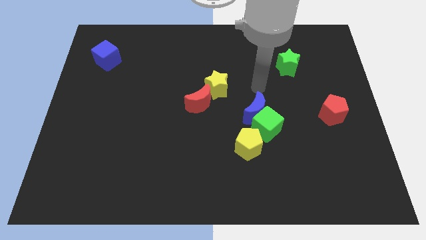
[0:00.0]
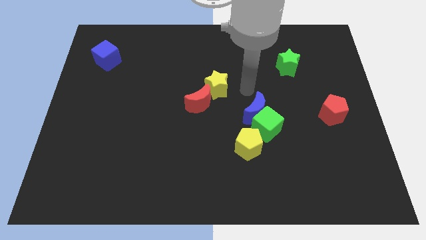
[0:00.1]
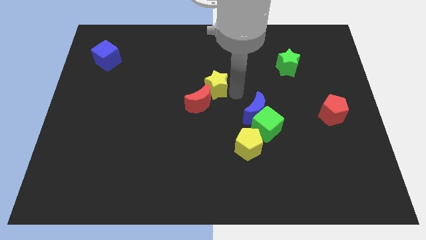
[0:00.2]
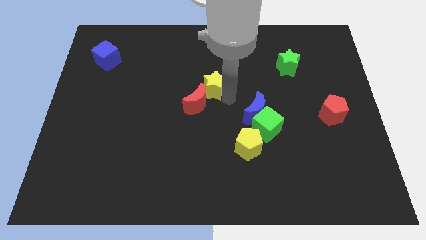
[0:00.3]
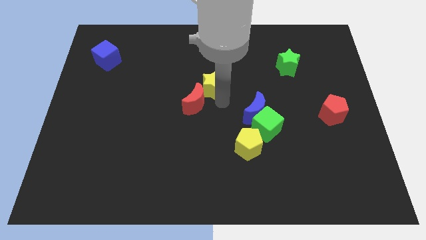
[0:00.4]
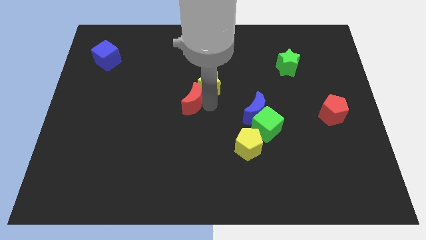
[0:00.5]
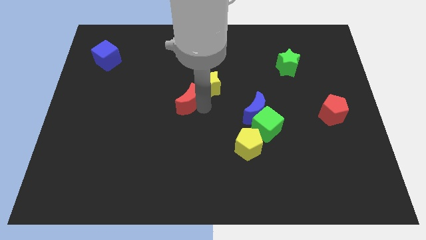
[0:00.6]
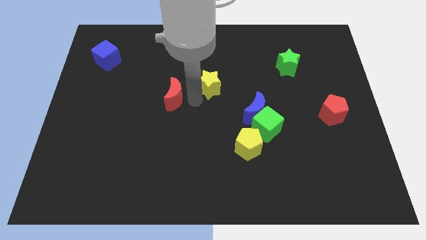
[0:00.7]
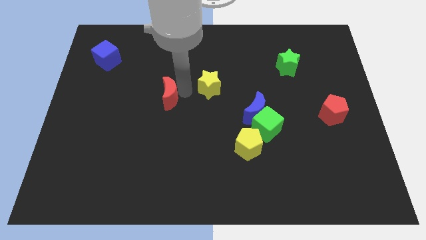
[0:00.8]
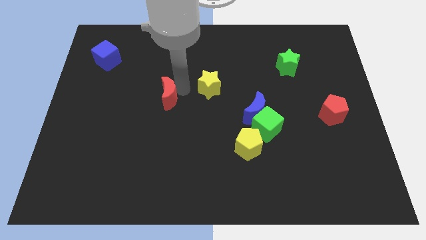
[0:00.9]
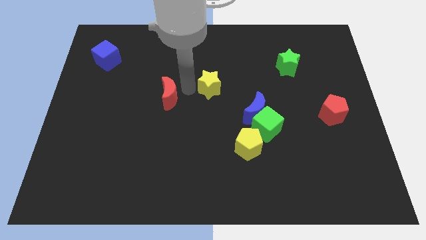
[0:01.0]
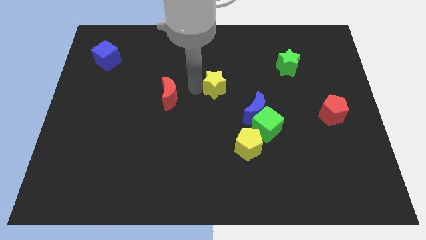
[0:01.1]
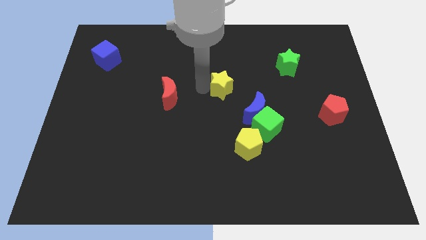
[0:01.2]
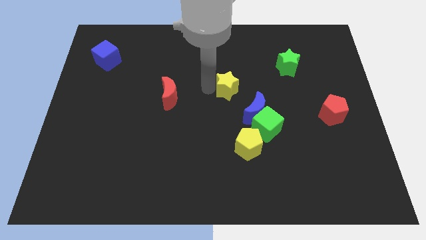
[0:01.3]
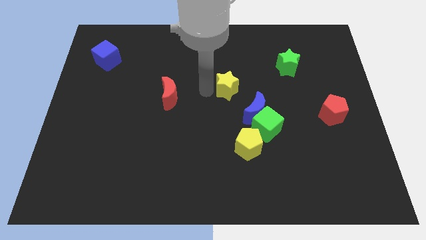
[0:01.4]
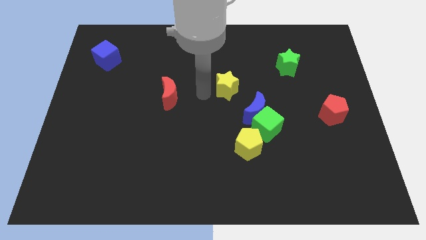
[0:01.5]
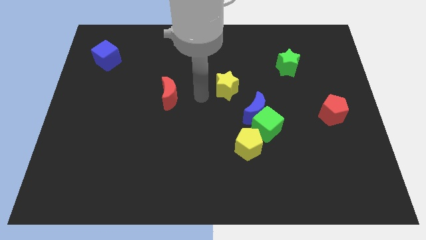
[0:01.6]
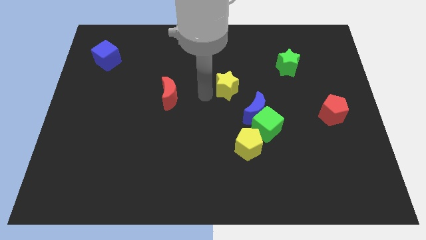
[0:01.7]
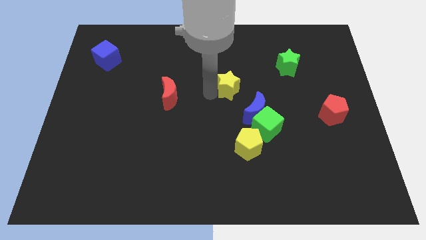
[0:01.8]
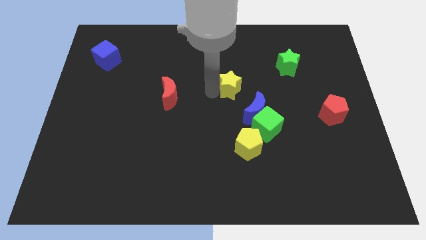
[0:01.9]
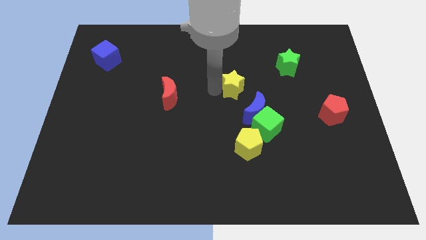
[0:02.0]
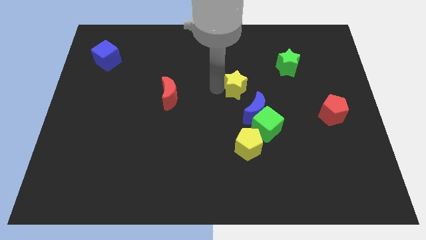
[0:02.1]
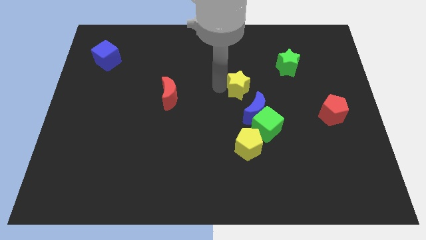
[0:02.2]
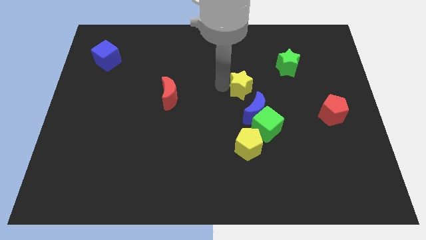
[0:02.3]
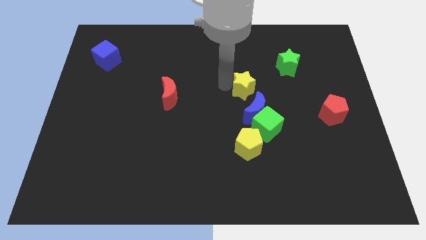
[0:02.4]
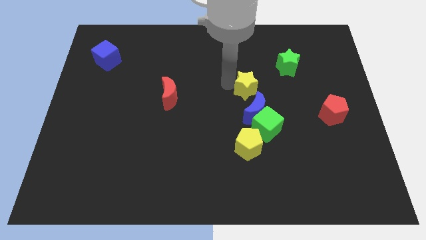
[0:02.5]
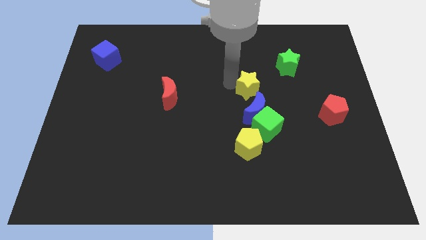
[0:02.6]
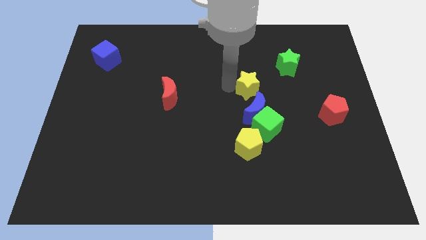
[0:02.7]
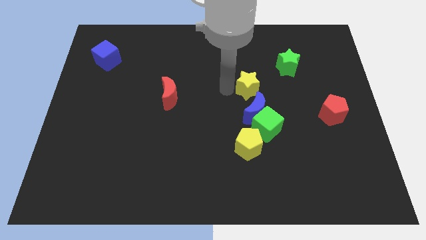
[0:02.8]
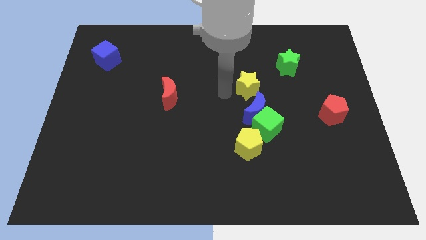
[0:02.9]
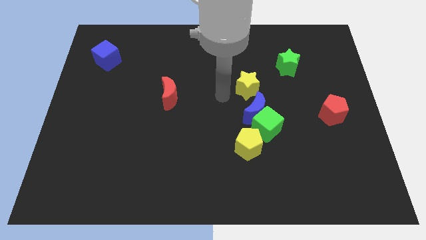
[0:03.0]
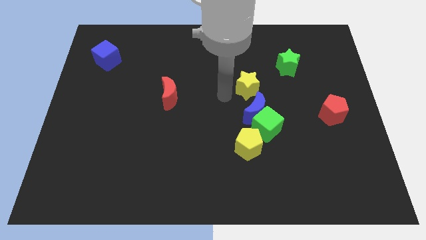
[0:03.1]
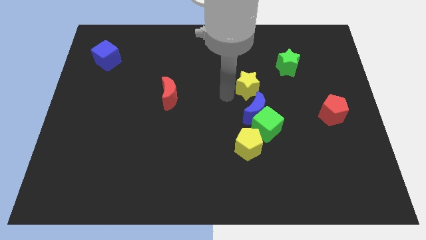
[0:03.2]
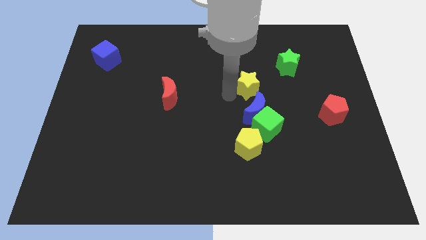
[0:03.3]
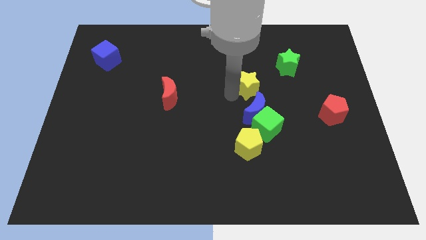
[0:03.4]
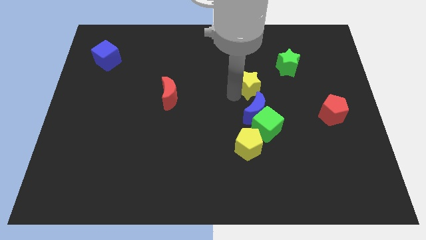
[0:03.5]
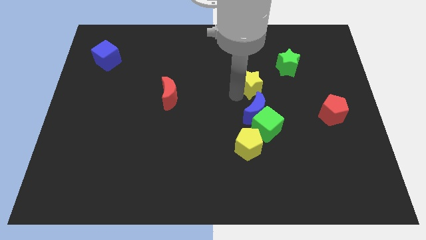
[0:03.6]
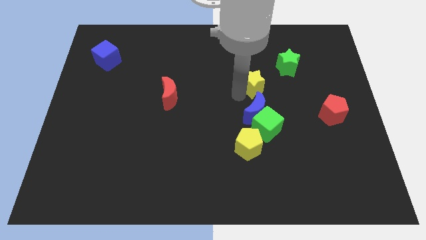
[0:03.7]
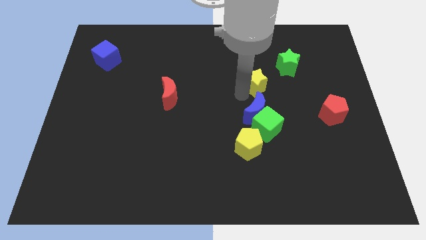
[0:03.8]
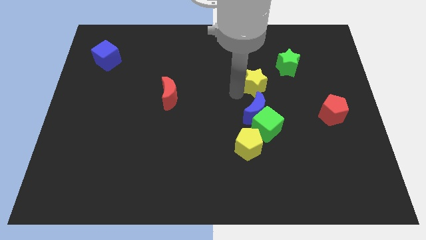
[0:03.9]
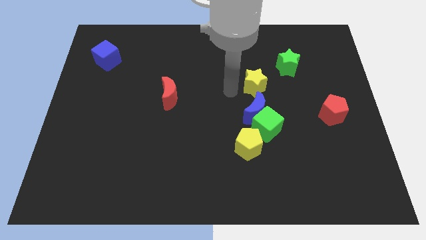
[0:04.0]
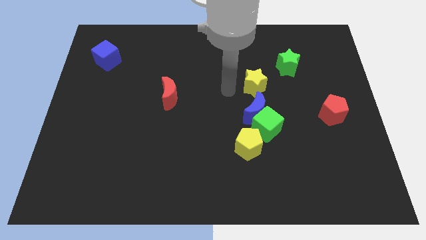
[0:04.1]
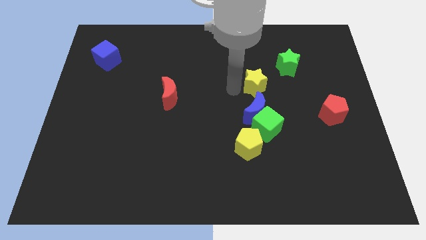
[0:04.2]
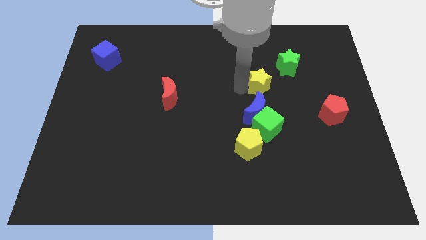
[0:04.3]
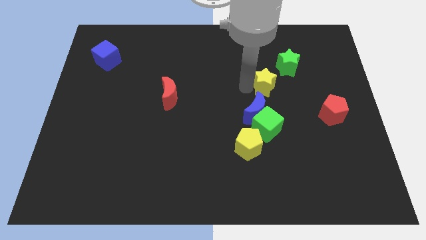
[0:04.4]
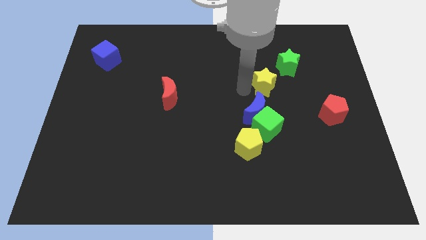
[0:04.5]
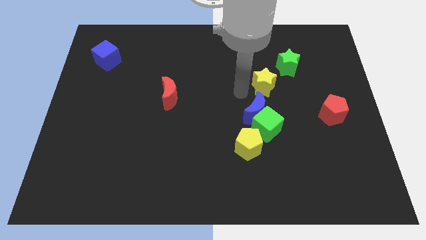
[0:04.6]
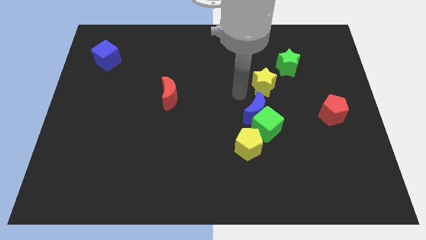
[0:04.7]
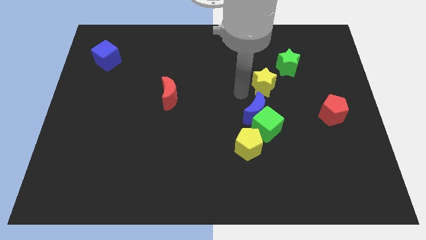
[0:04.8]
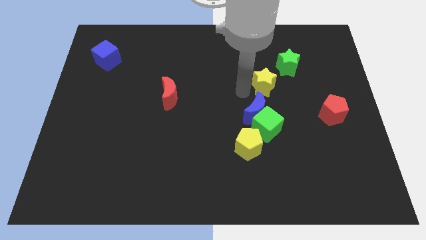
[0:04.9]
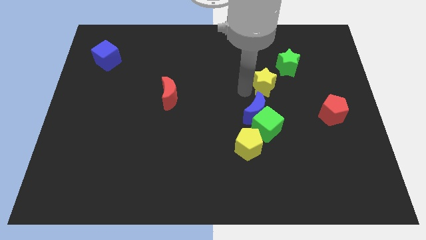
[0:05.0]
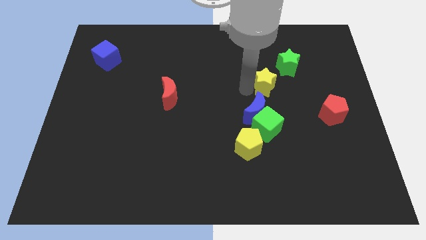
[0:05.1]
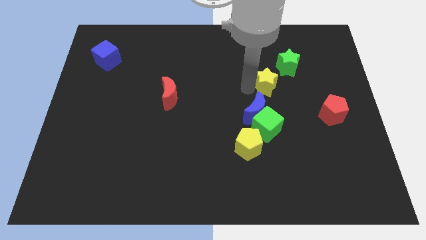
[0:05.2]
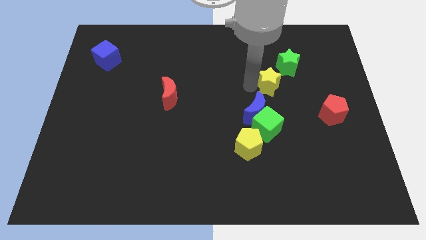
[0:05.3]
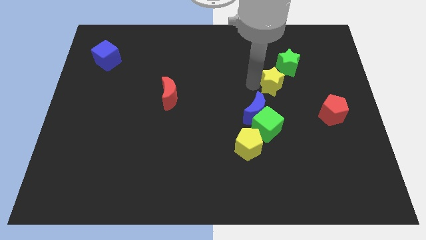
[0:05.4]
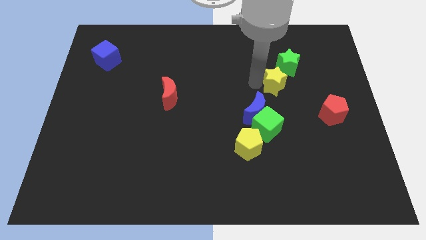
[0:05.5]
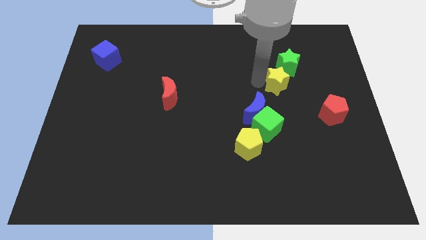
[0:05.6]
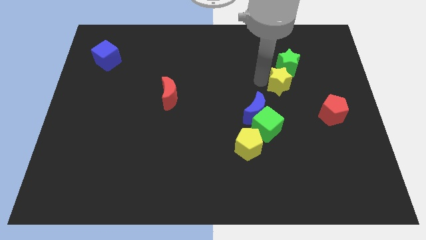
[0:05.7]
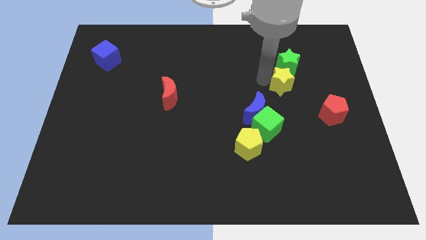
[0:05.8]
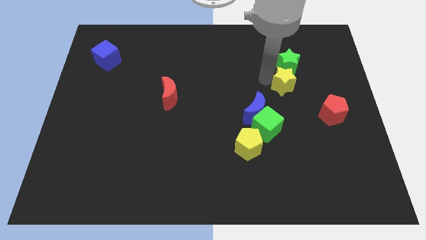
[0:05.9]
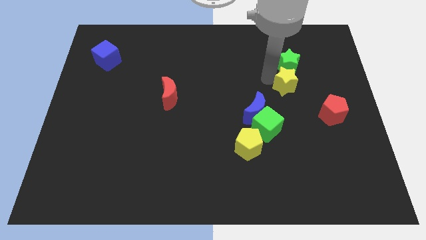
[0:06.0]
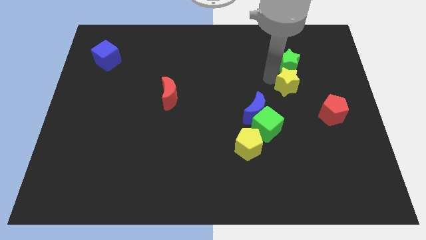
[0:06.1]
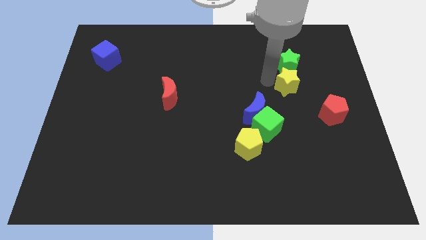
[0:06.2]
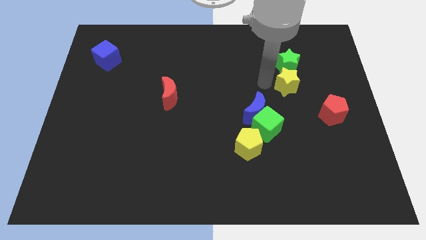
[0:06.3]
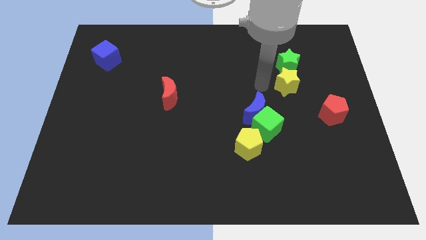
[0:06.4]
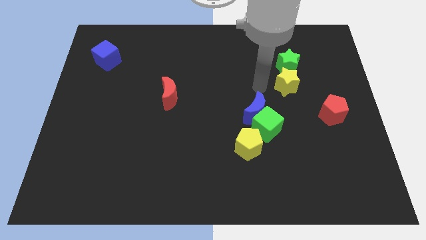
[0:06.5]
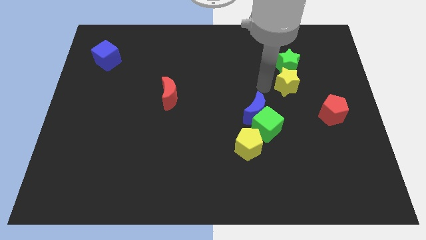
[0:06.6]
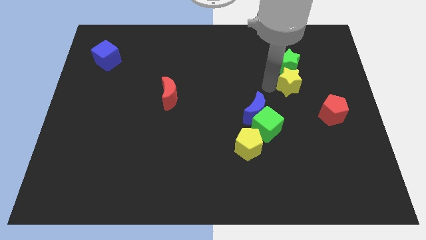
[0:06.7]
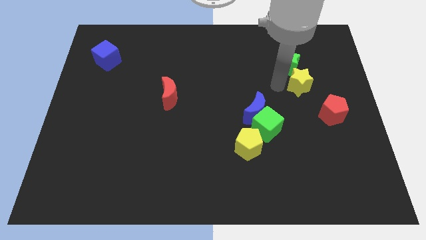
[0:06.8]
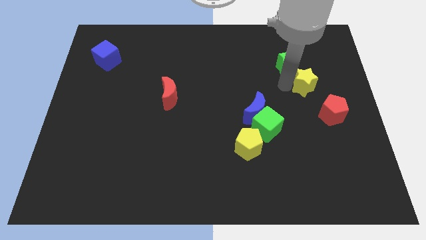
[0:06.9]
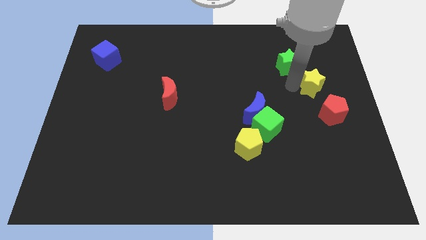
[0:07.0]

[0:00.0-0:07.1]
move the yellow star above the red pentagon

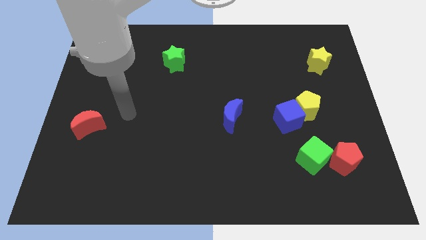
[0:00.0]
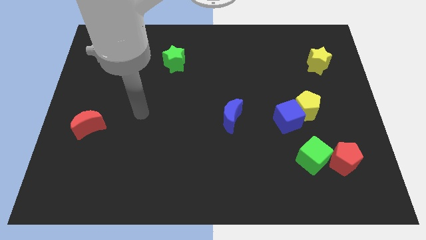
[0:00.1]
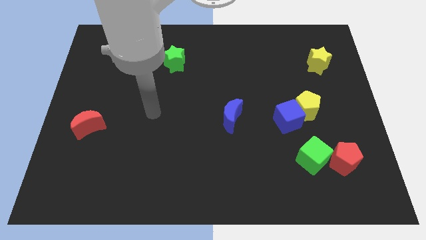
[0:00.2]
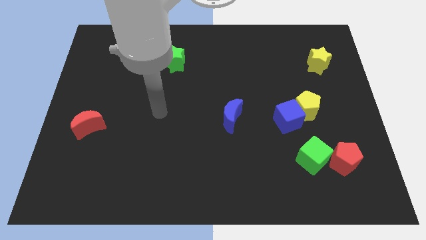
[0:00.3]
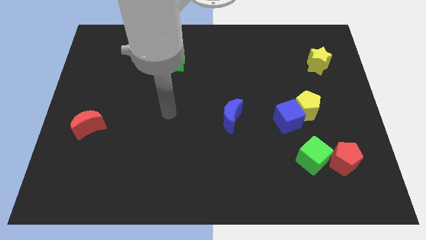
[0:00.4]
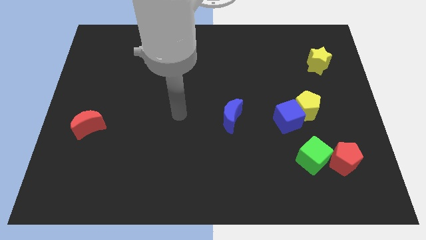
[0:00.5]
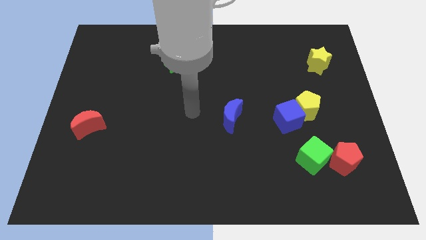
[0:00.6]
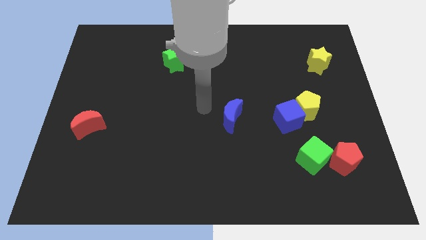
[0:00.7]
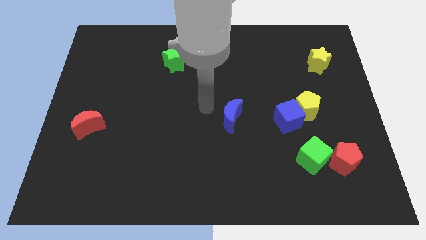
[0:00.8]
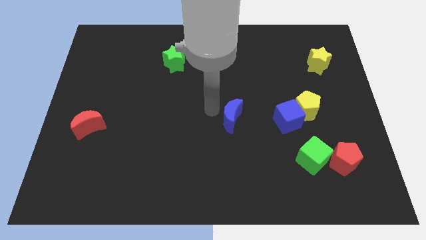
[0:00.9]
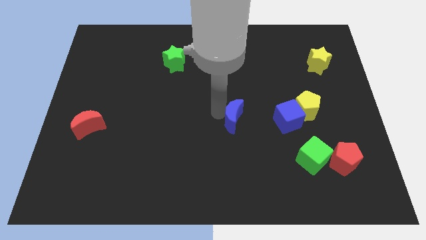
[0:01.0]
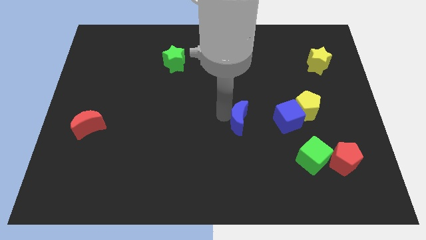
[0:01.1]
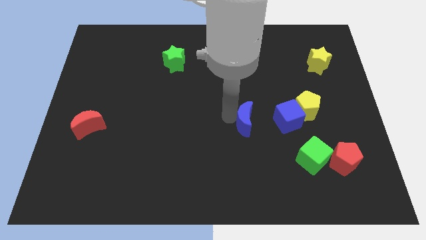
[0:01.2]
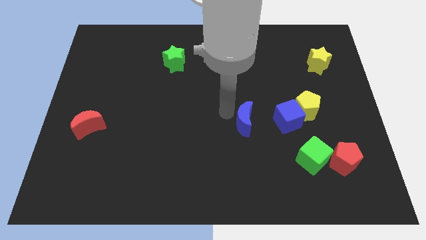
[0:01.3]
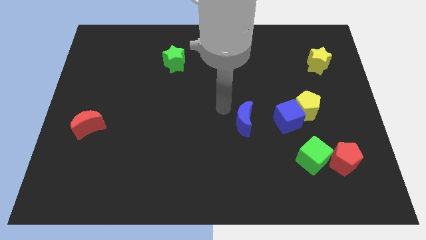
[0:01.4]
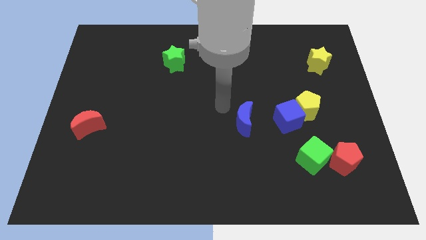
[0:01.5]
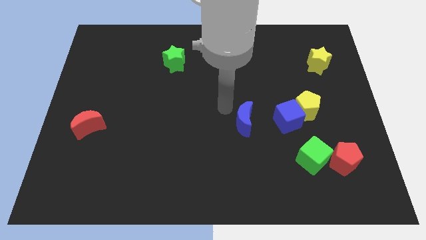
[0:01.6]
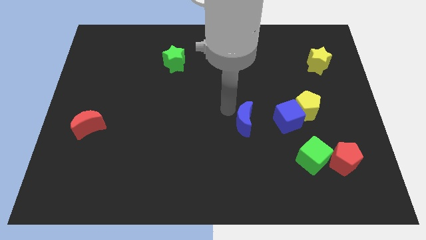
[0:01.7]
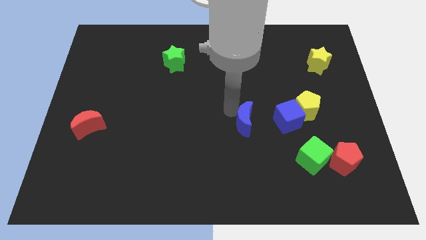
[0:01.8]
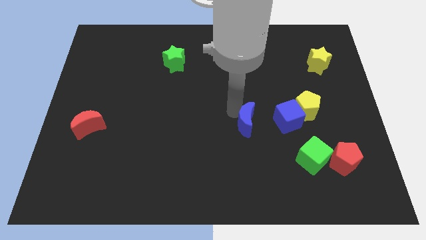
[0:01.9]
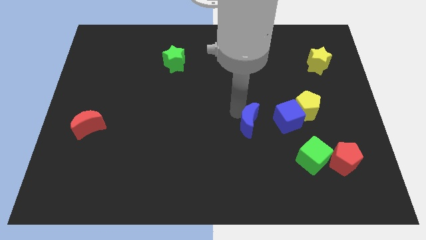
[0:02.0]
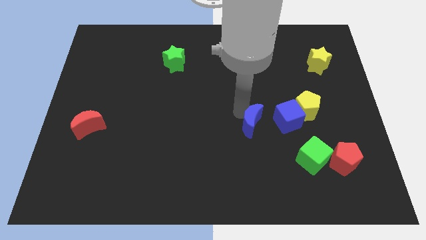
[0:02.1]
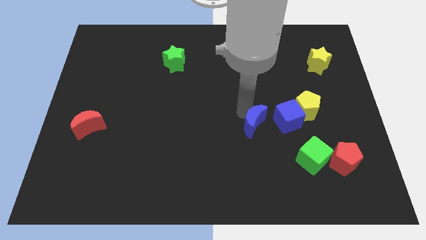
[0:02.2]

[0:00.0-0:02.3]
slide the blue moon diagonally down and to the left of the blue cube
